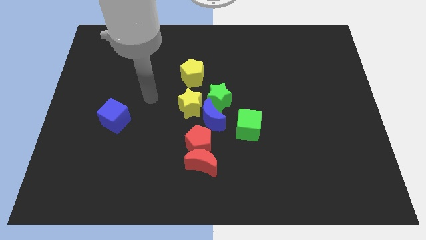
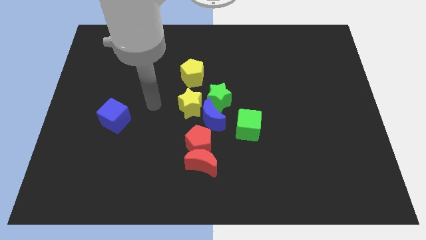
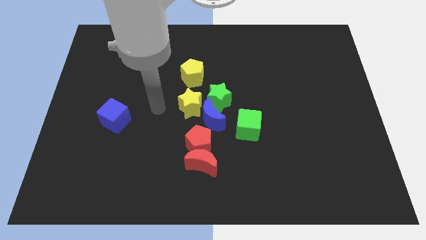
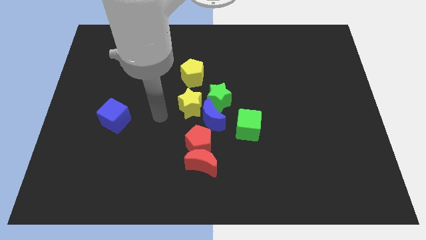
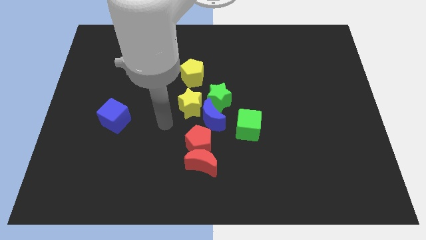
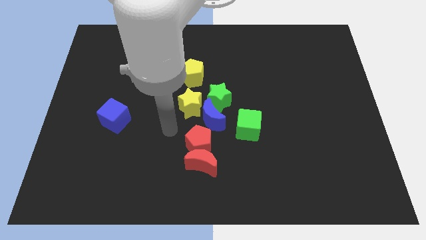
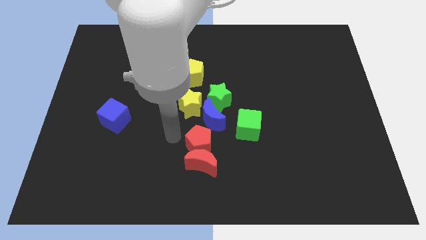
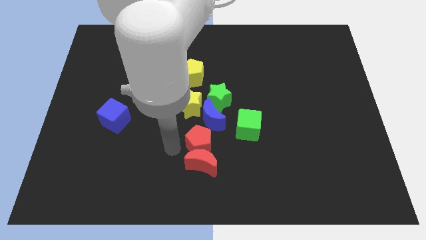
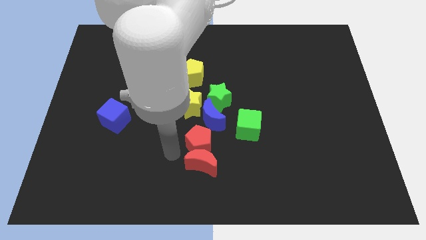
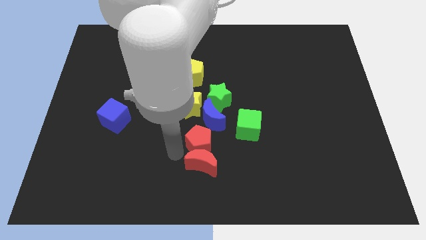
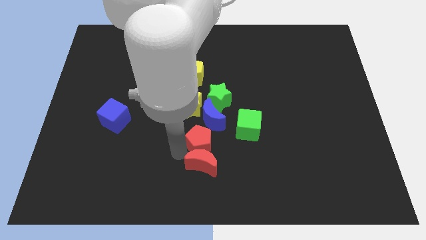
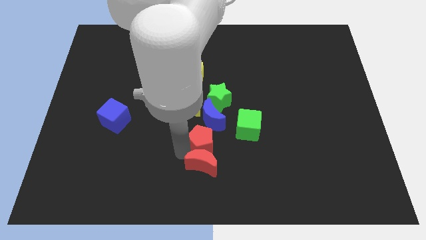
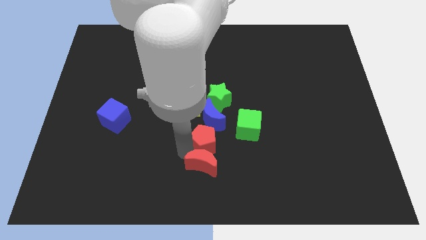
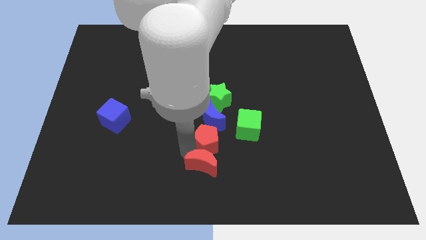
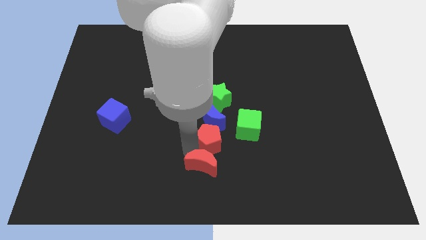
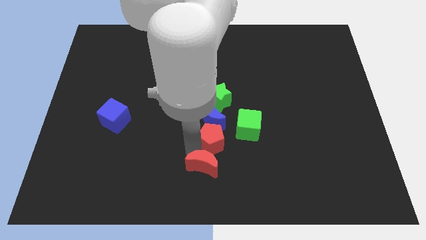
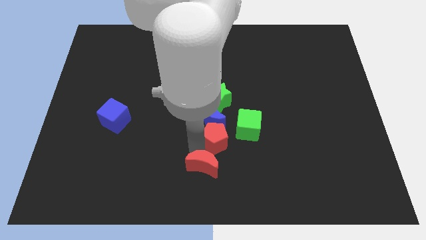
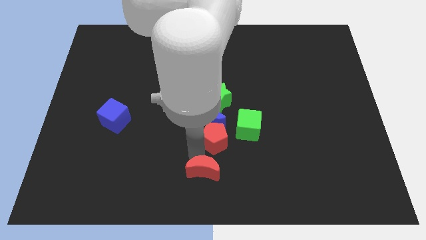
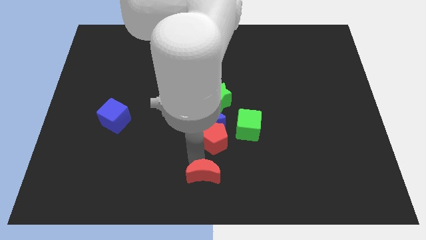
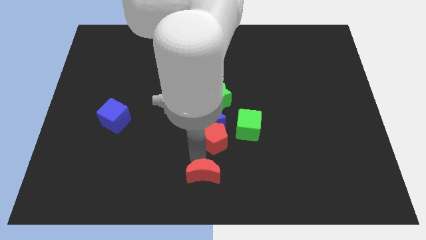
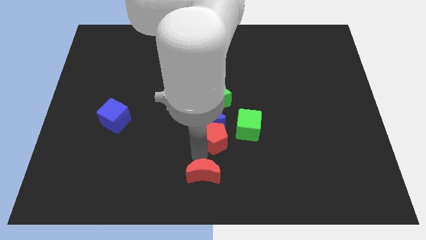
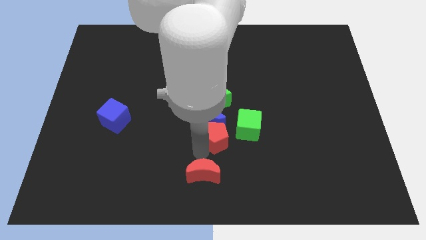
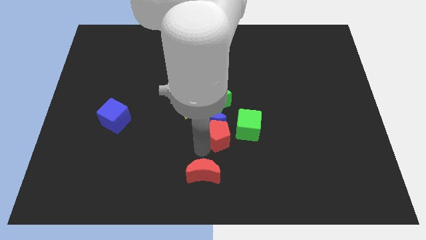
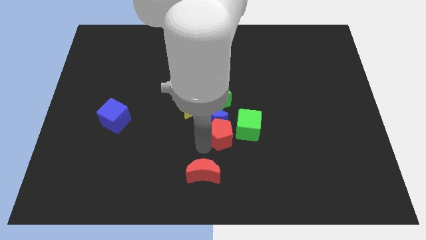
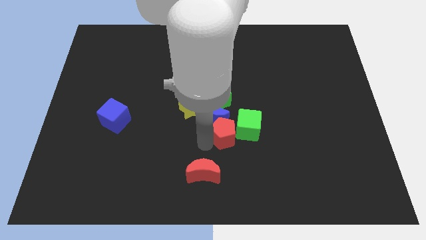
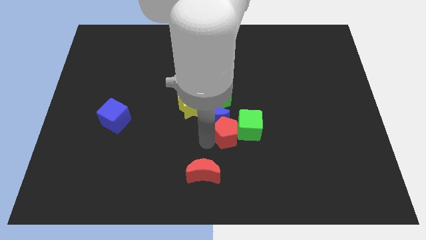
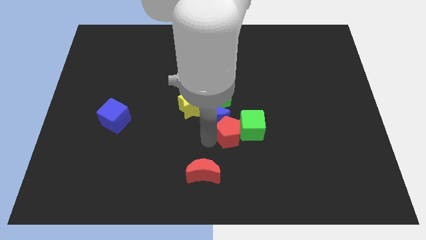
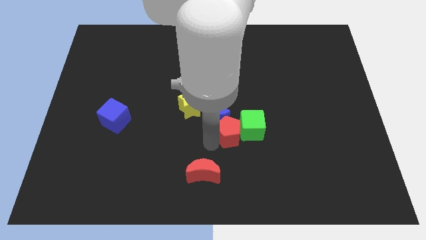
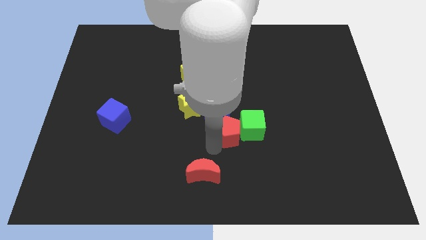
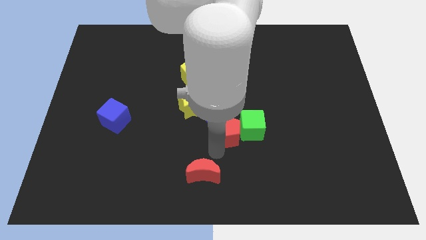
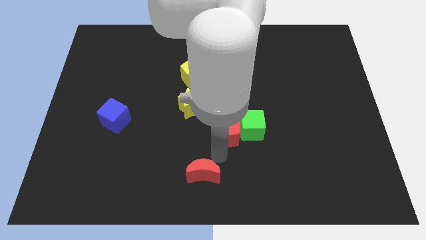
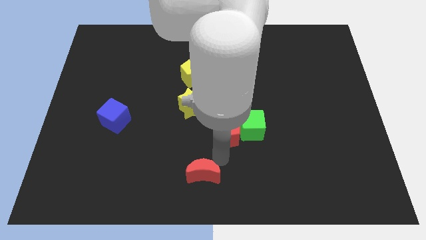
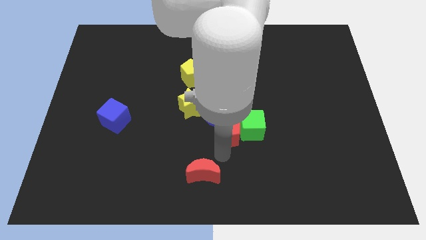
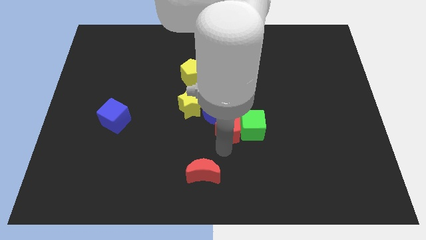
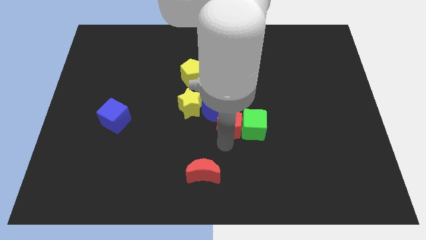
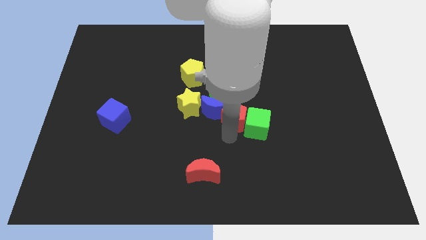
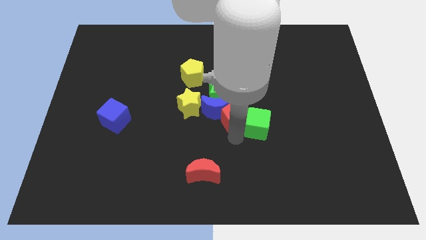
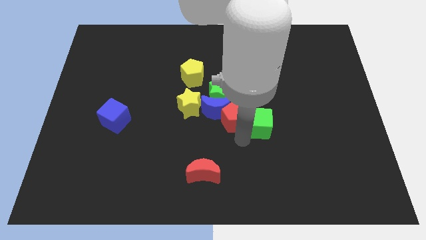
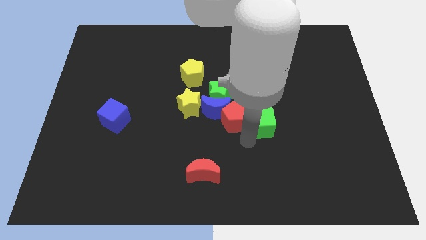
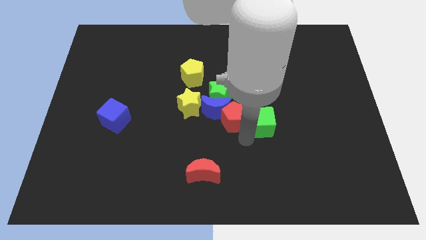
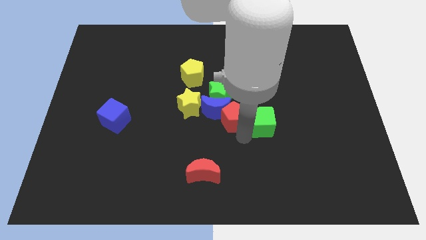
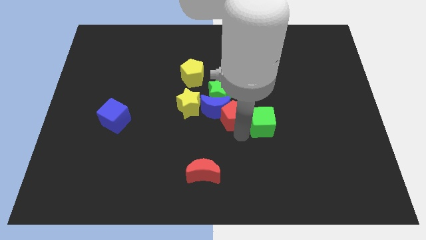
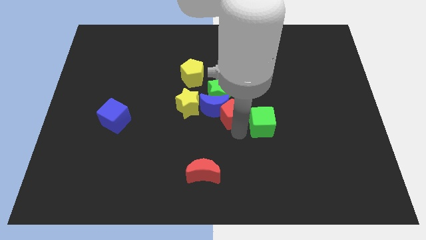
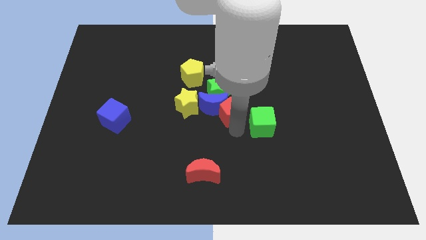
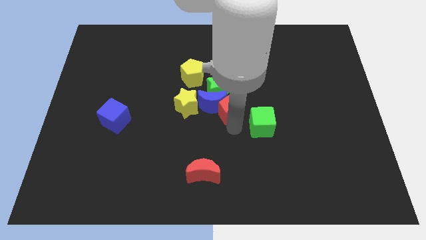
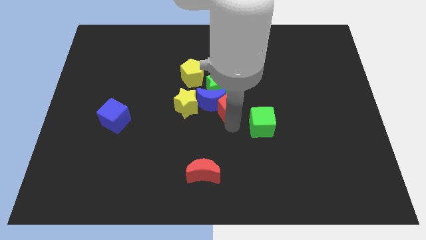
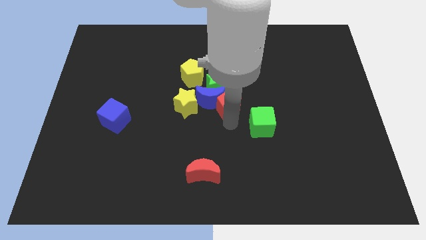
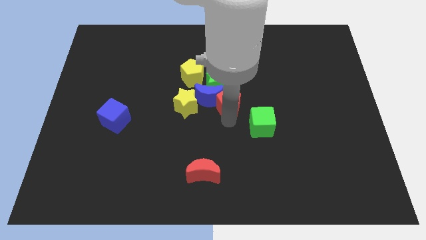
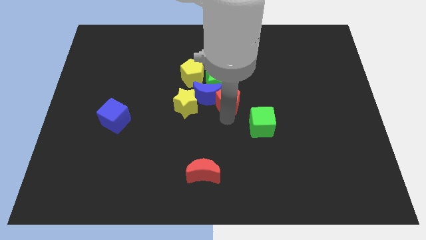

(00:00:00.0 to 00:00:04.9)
put the red pentagon close to the green star

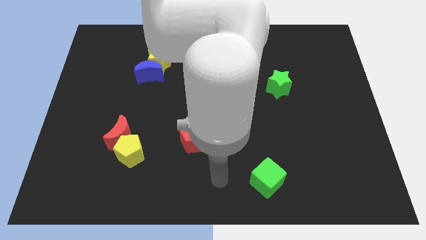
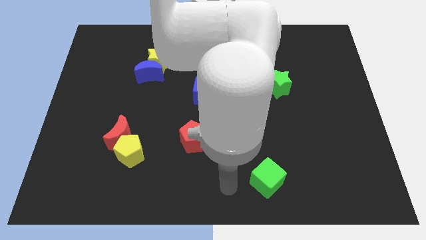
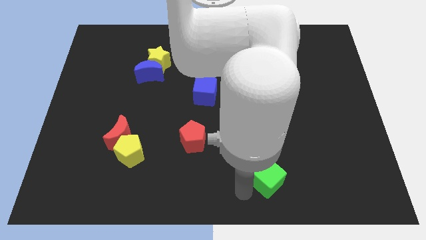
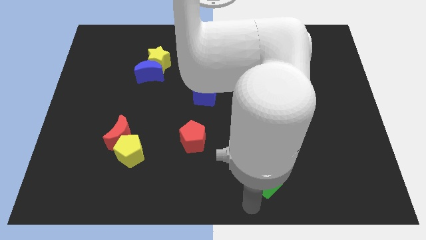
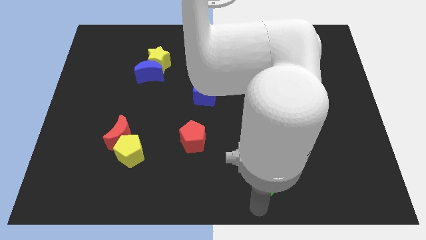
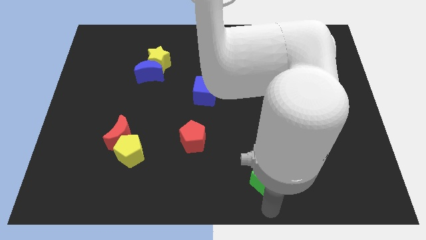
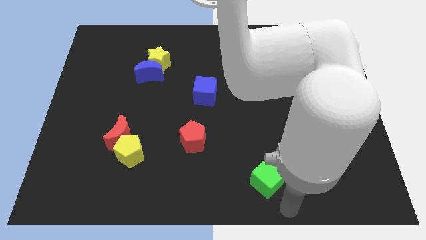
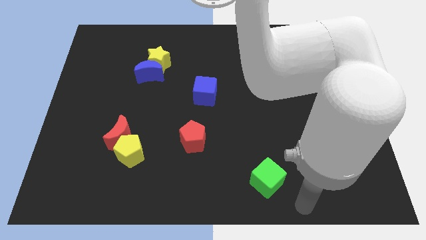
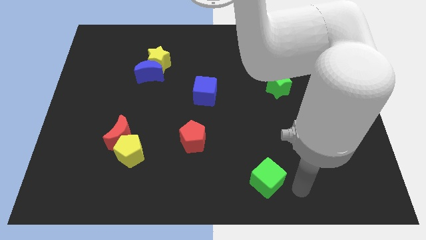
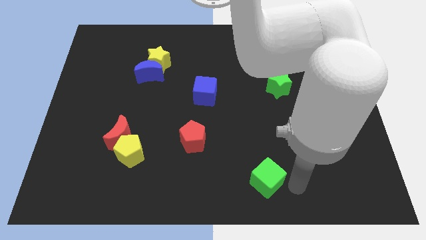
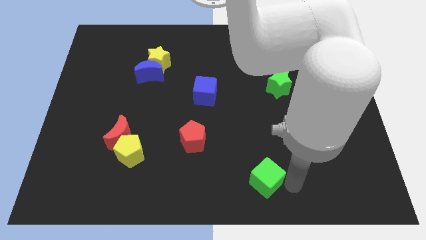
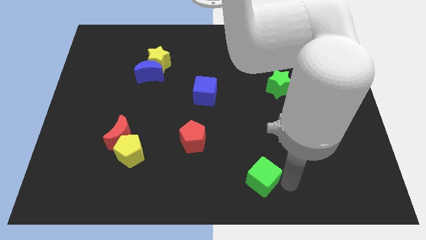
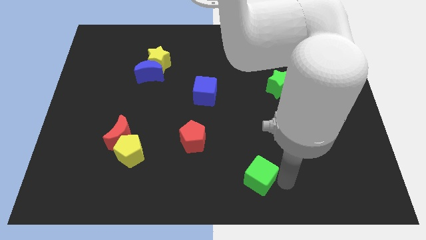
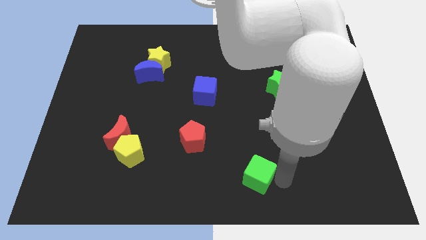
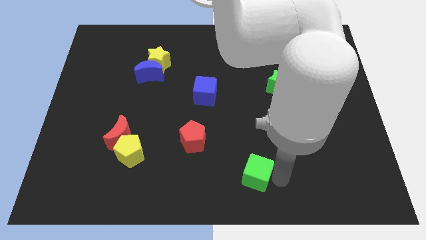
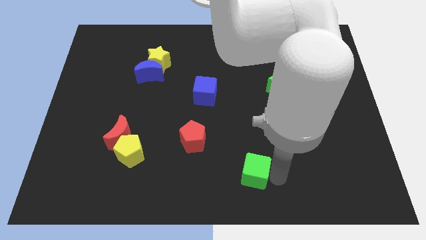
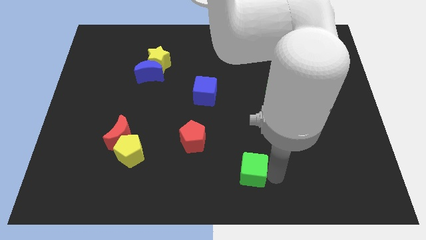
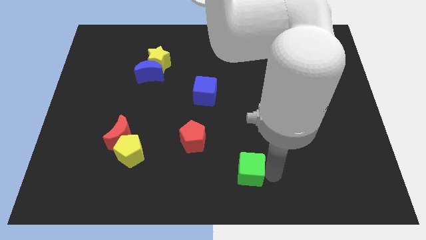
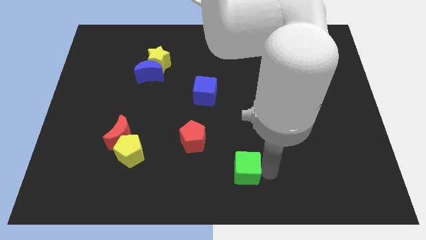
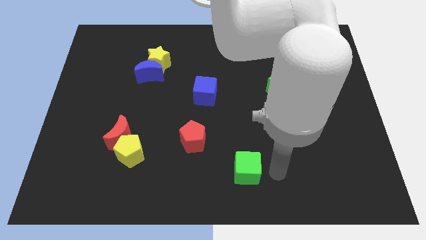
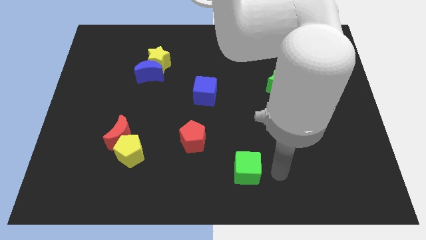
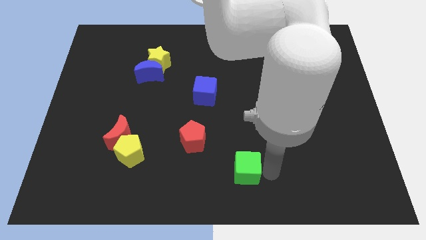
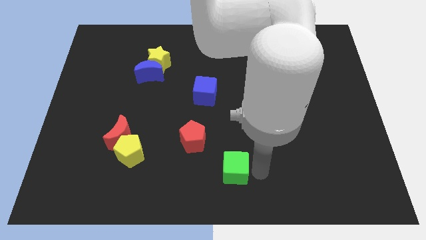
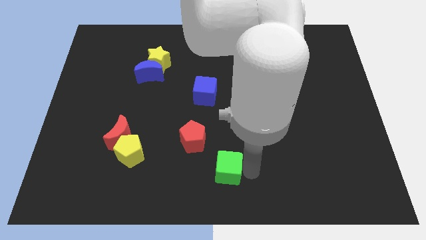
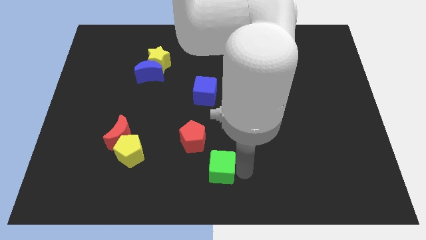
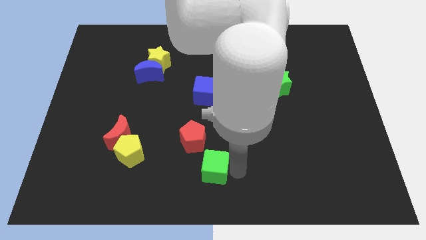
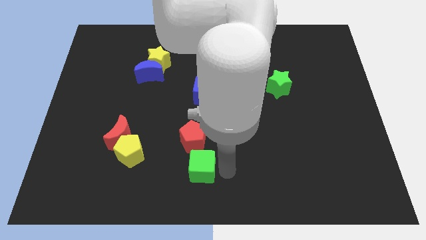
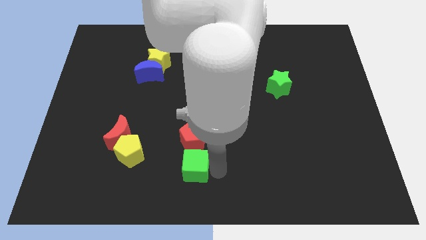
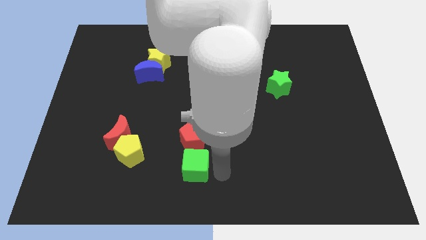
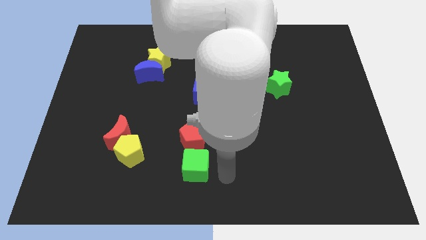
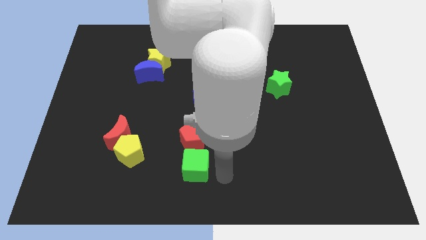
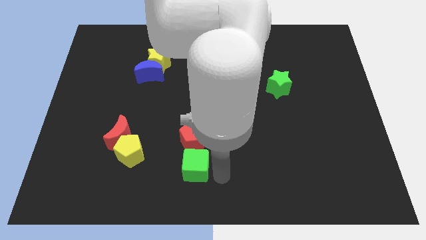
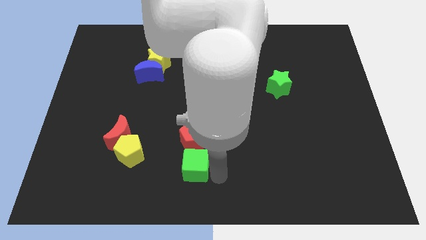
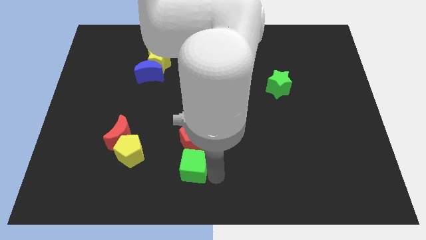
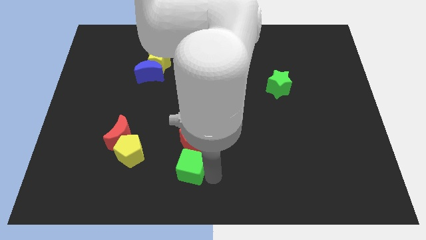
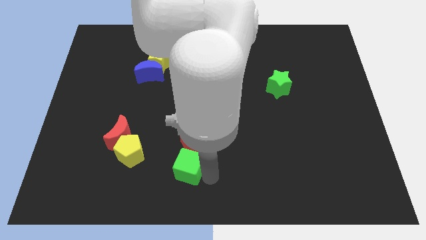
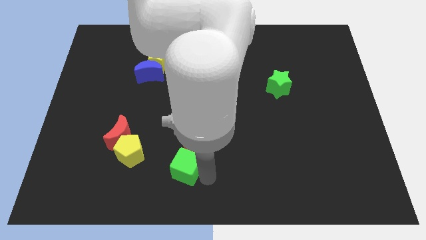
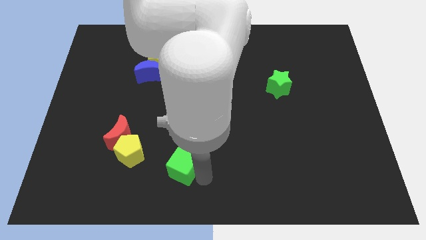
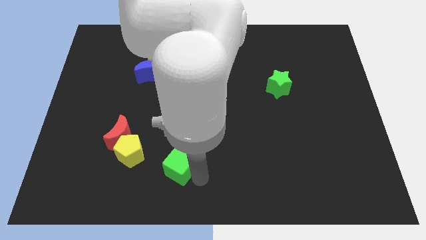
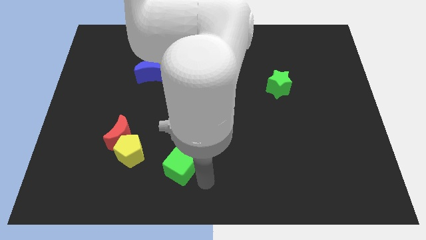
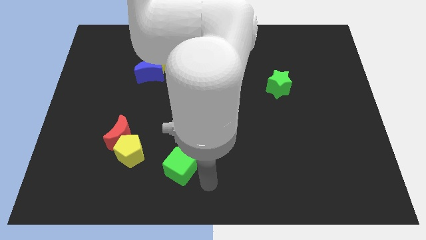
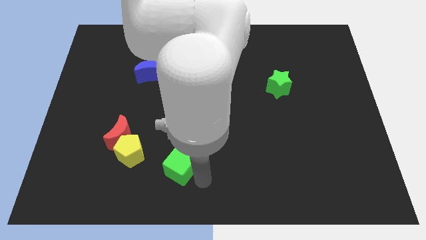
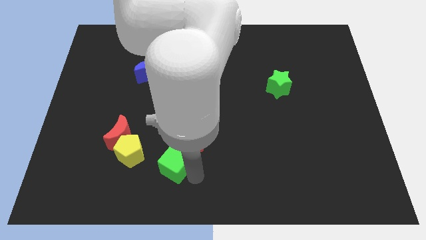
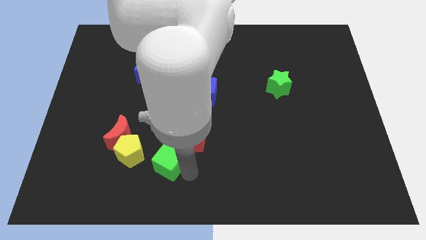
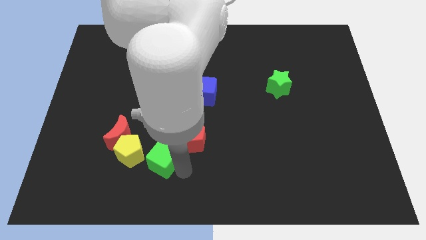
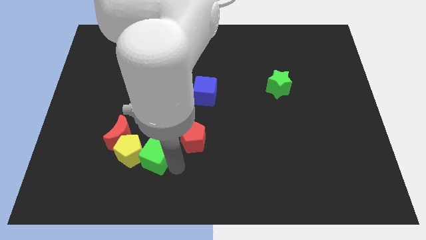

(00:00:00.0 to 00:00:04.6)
put the green cube towards the yellow pentagon
